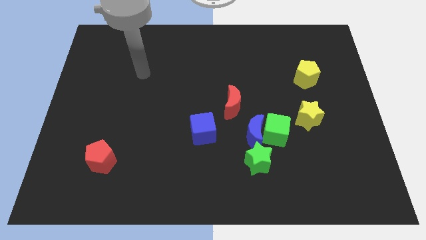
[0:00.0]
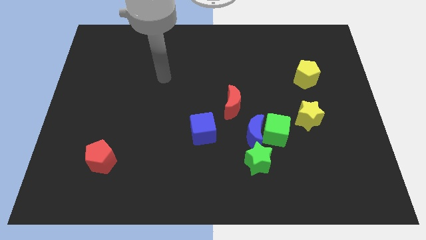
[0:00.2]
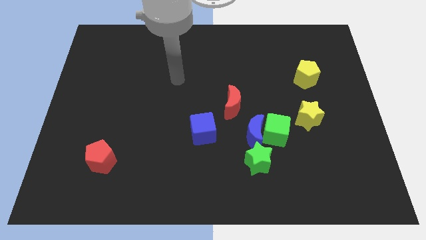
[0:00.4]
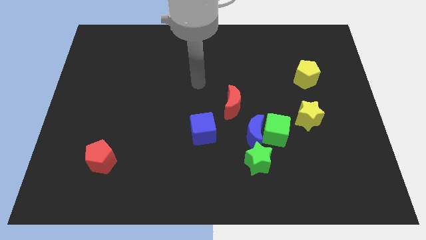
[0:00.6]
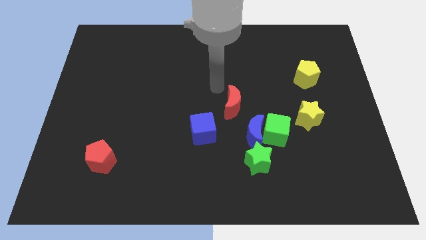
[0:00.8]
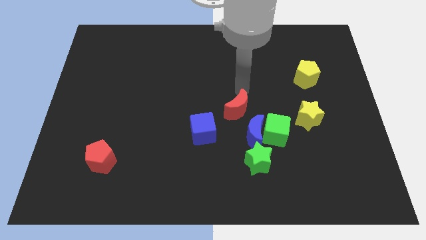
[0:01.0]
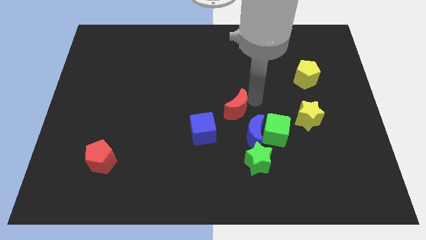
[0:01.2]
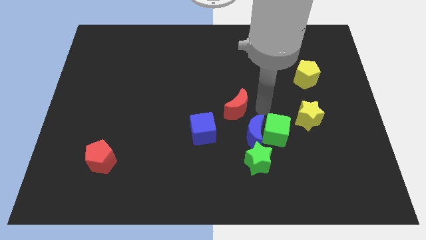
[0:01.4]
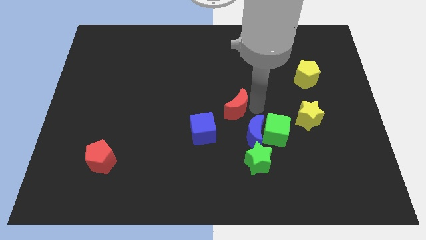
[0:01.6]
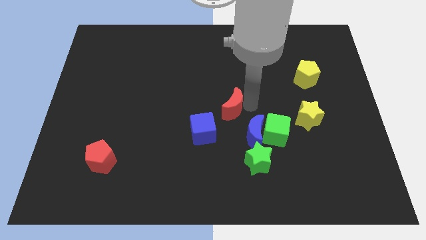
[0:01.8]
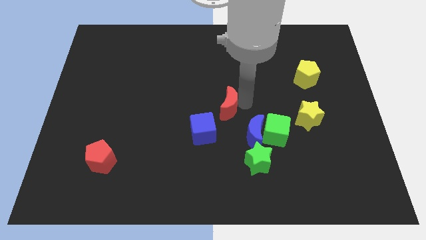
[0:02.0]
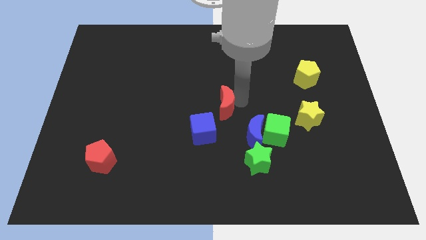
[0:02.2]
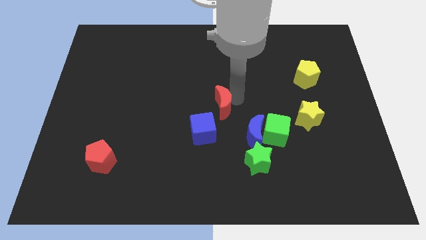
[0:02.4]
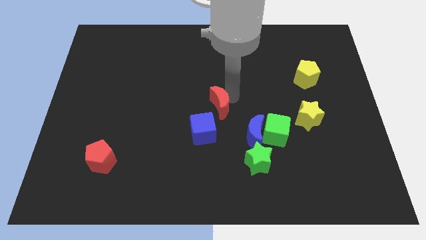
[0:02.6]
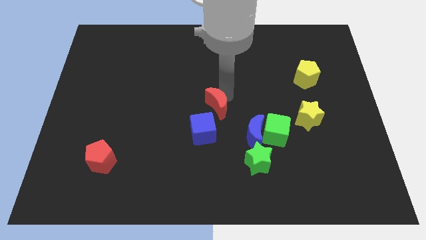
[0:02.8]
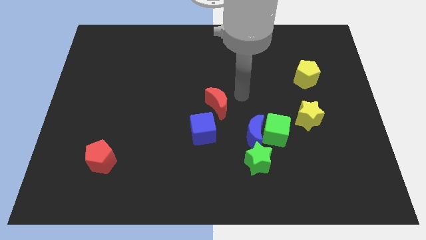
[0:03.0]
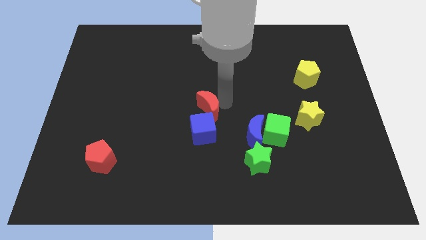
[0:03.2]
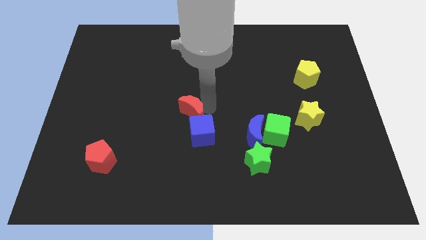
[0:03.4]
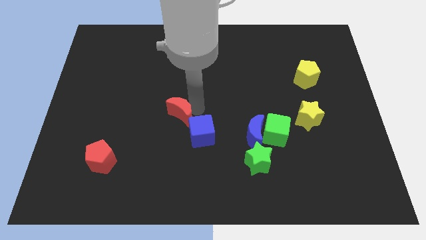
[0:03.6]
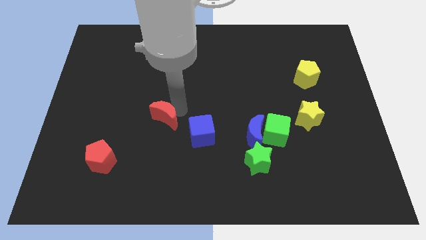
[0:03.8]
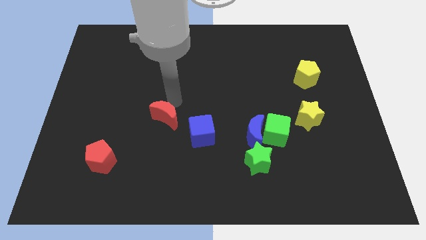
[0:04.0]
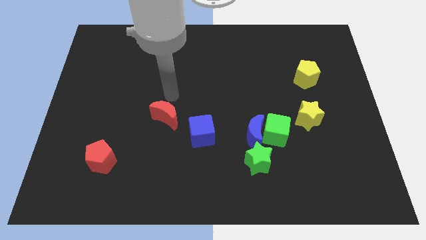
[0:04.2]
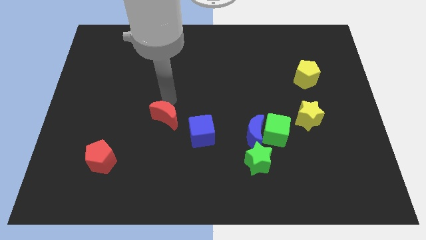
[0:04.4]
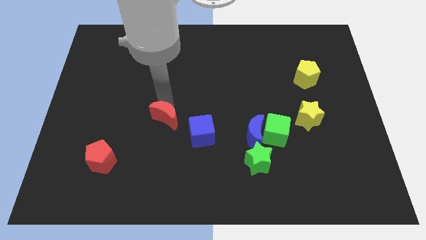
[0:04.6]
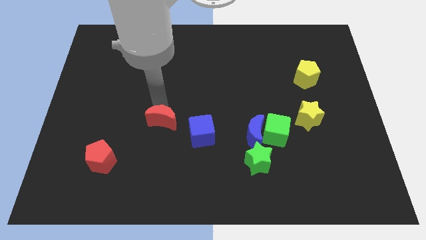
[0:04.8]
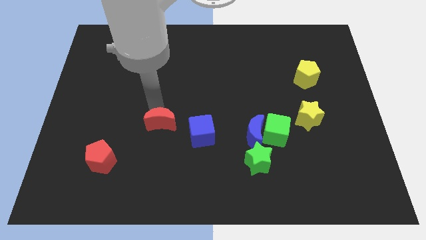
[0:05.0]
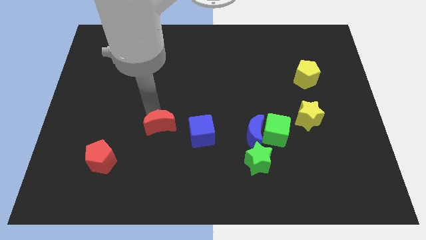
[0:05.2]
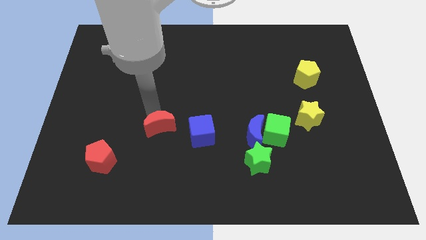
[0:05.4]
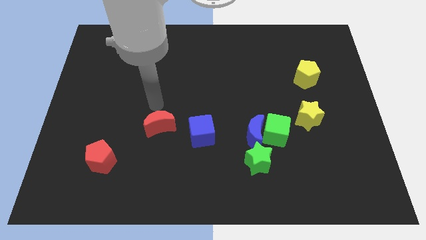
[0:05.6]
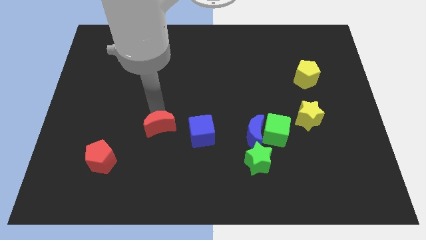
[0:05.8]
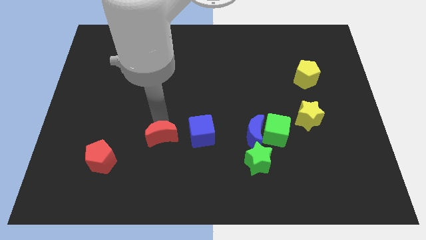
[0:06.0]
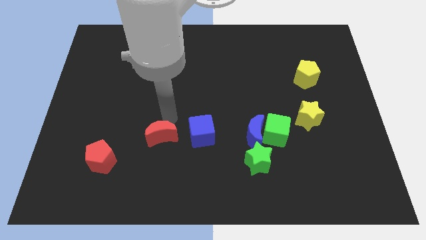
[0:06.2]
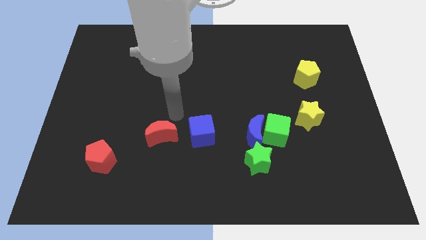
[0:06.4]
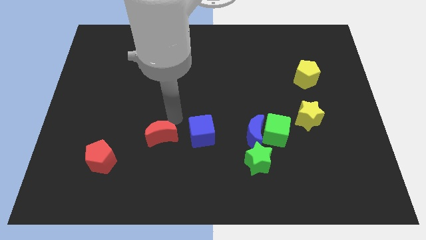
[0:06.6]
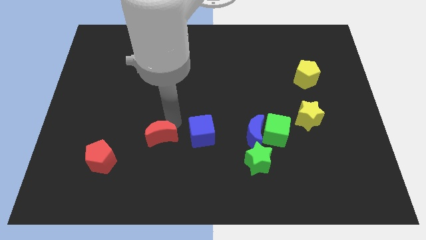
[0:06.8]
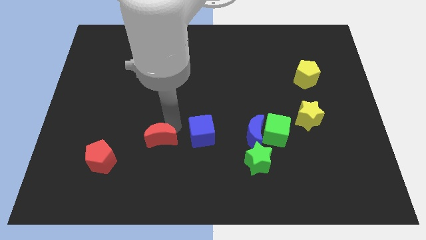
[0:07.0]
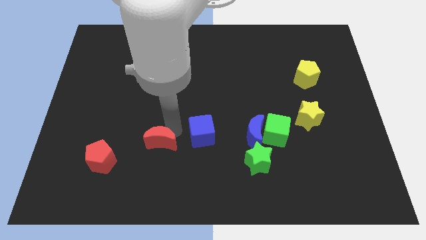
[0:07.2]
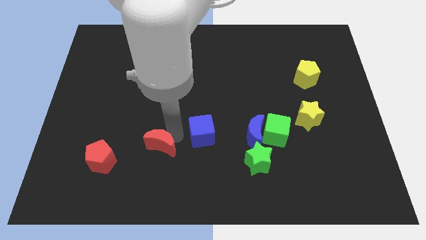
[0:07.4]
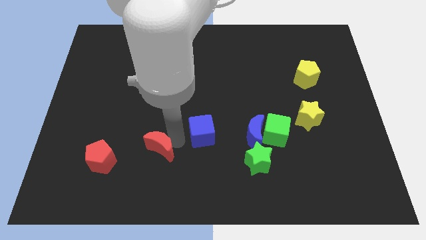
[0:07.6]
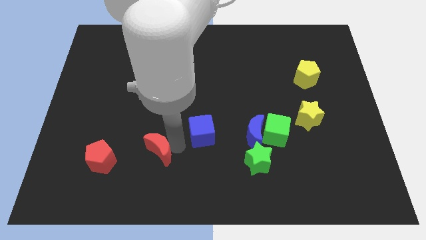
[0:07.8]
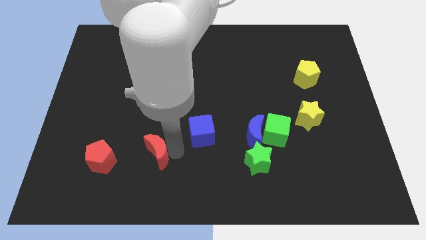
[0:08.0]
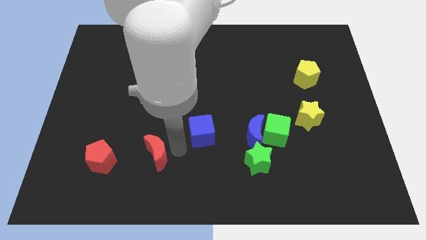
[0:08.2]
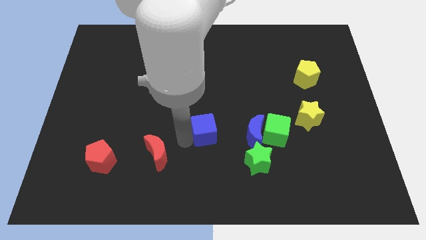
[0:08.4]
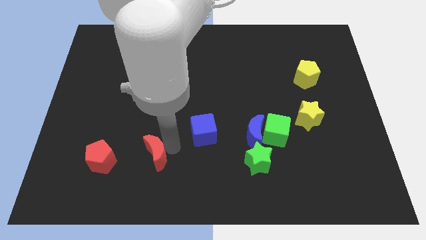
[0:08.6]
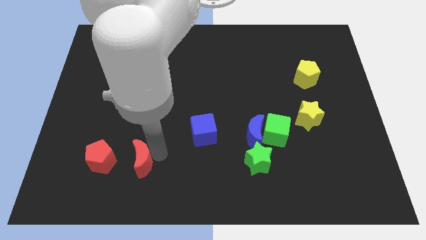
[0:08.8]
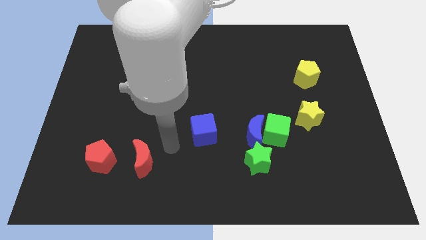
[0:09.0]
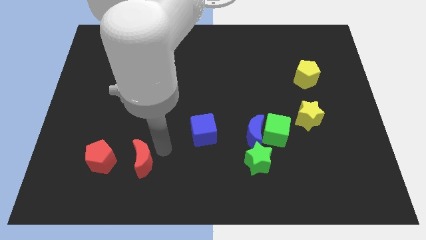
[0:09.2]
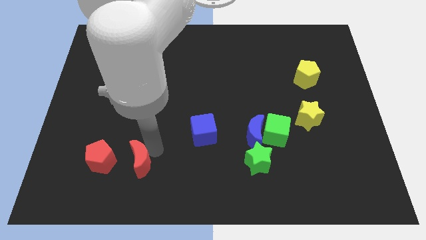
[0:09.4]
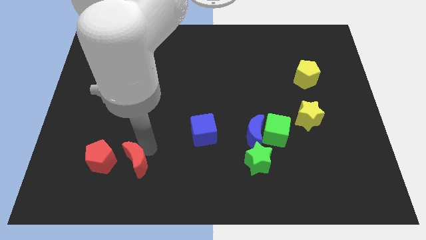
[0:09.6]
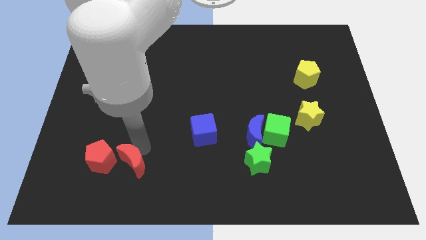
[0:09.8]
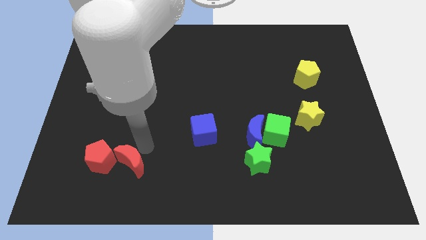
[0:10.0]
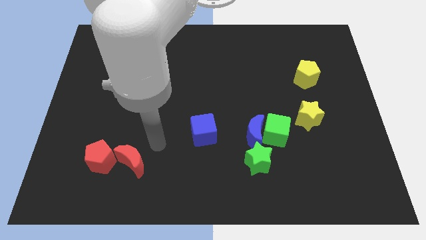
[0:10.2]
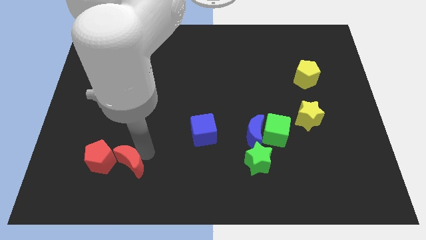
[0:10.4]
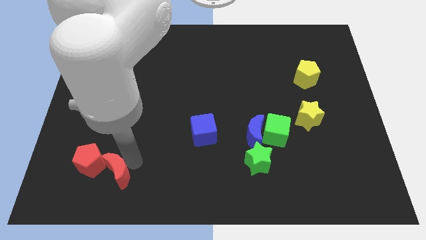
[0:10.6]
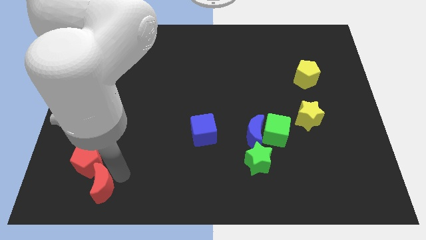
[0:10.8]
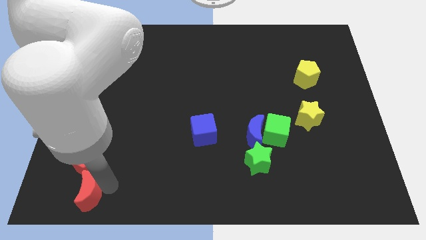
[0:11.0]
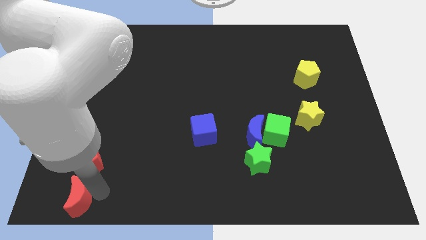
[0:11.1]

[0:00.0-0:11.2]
move the red moon to the bottom left

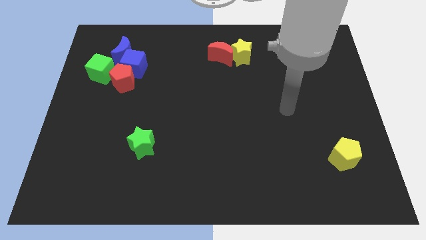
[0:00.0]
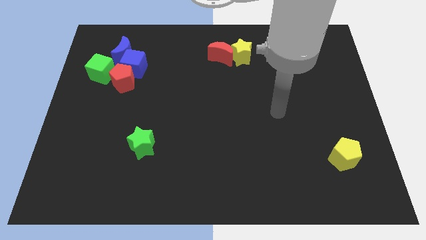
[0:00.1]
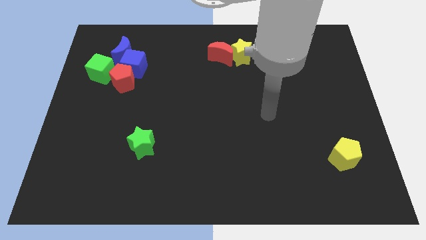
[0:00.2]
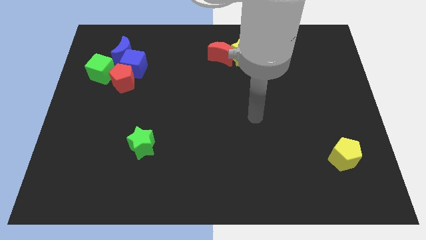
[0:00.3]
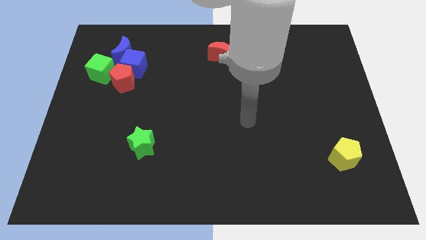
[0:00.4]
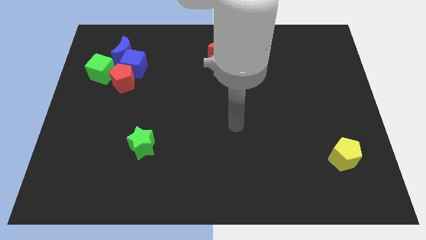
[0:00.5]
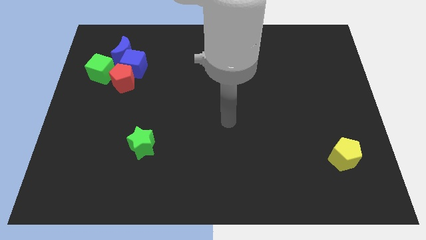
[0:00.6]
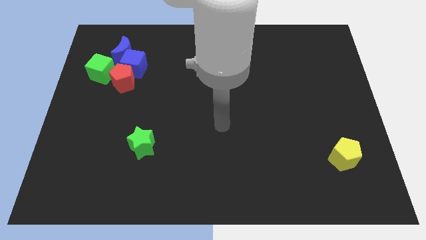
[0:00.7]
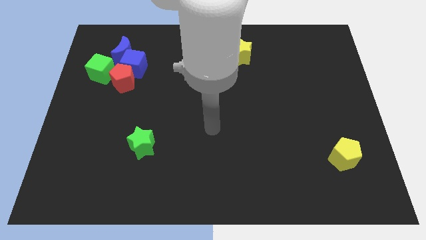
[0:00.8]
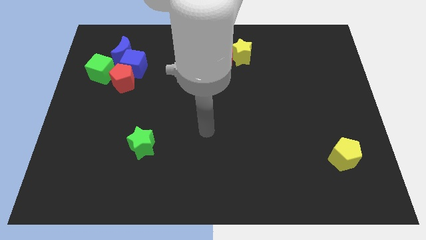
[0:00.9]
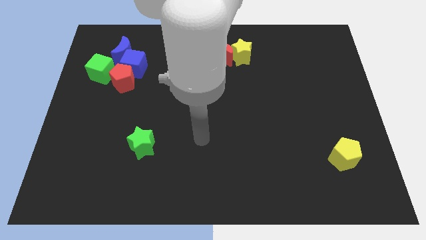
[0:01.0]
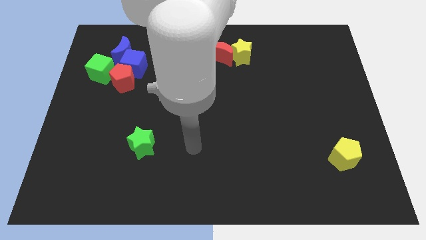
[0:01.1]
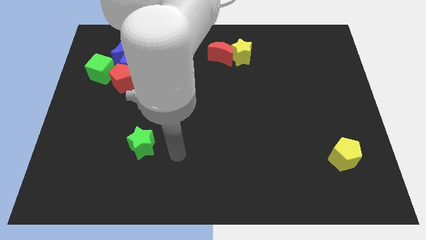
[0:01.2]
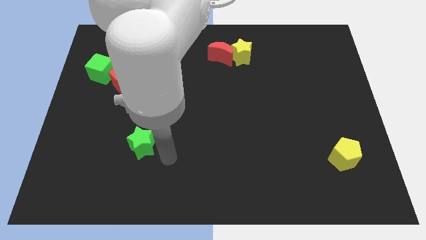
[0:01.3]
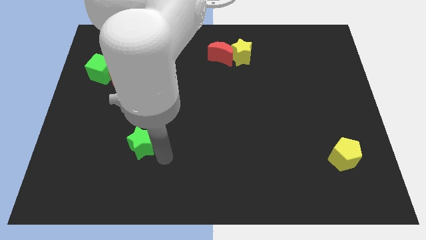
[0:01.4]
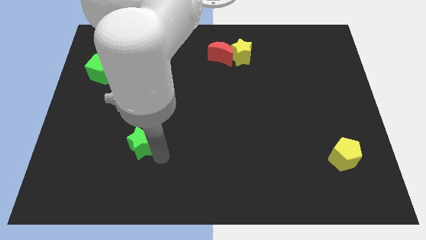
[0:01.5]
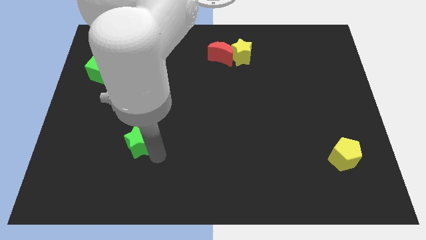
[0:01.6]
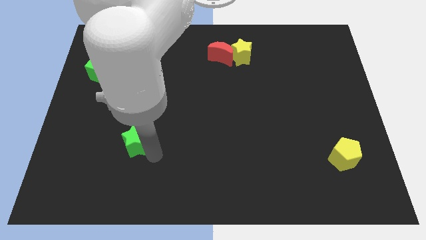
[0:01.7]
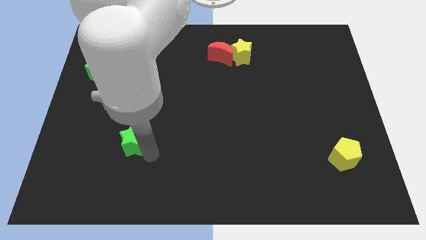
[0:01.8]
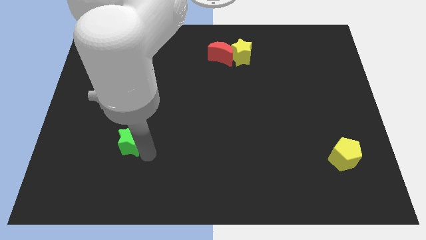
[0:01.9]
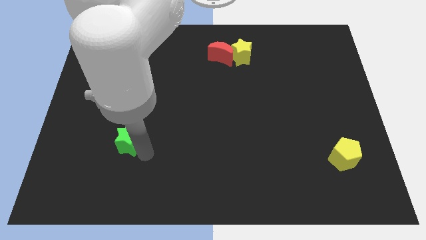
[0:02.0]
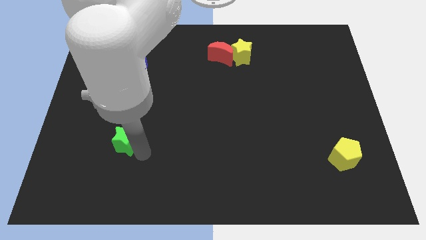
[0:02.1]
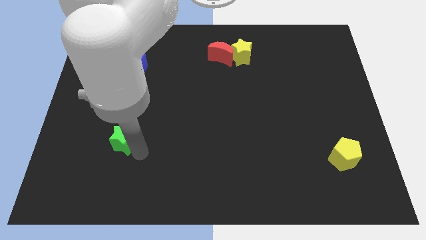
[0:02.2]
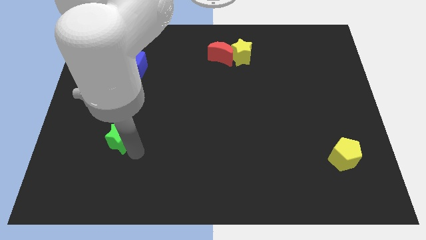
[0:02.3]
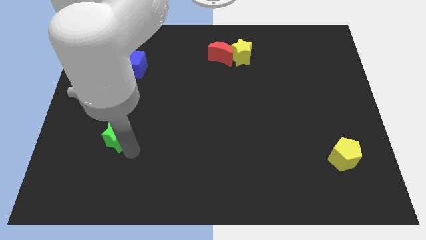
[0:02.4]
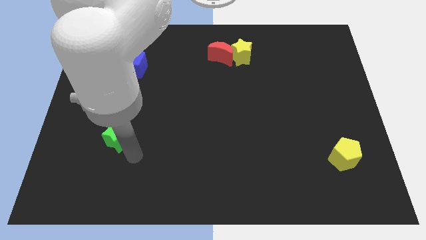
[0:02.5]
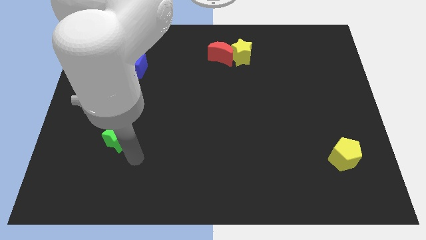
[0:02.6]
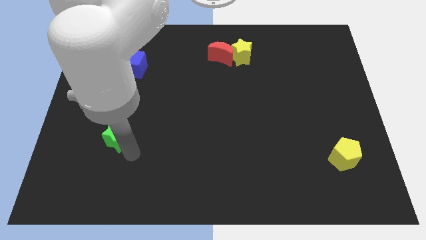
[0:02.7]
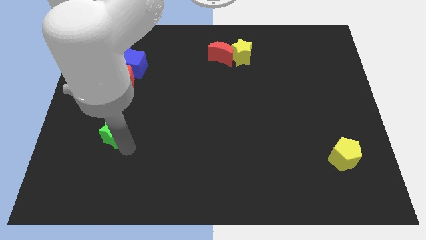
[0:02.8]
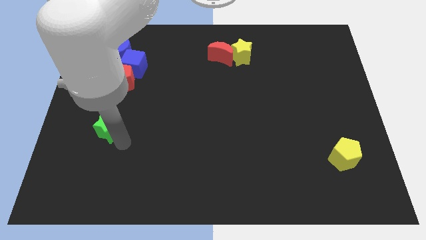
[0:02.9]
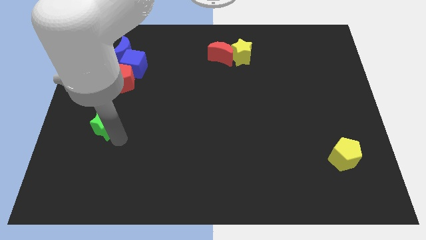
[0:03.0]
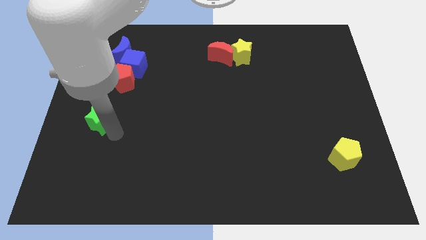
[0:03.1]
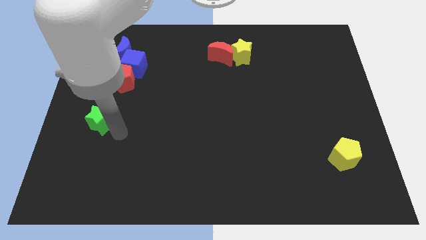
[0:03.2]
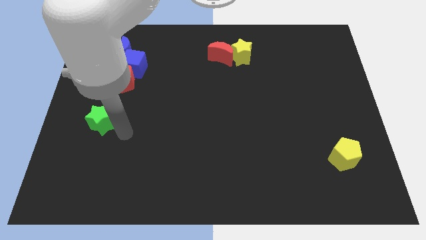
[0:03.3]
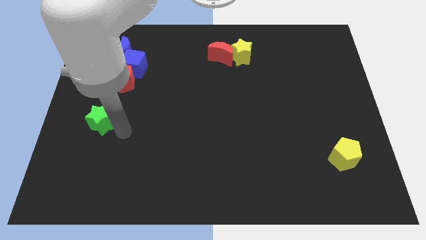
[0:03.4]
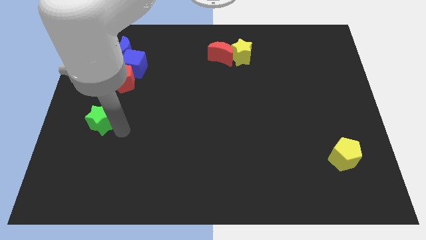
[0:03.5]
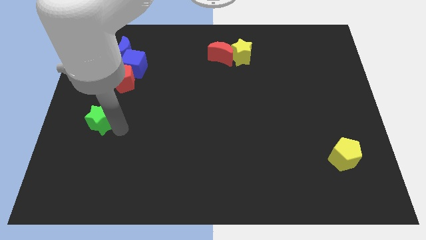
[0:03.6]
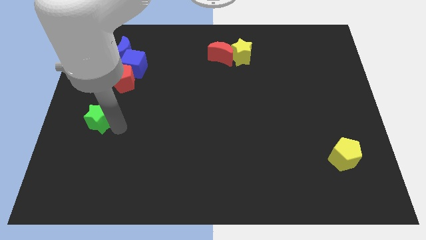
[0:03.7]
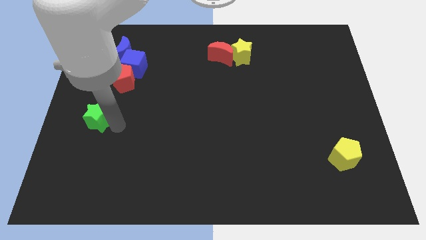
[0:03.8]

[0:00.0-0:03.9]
move the green star to the left side
